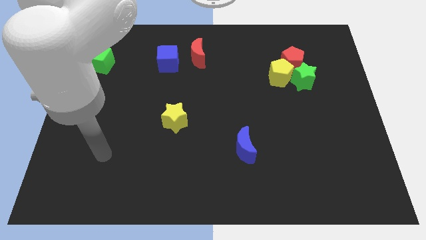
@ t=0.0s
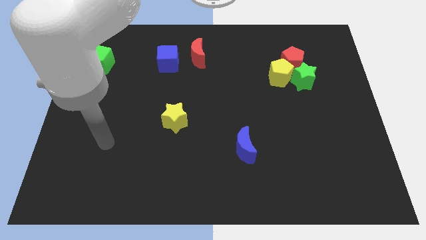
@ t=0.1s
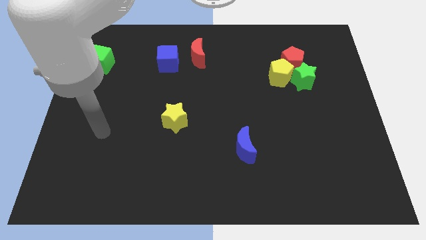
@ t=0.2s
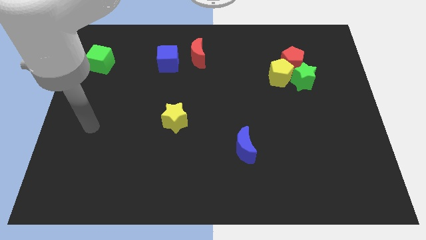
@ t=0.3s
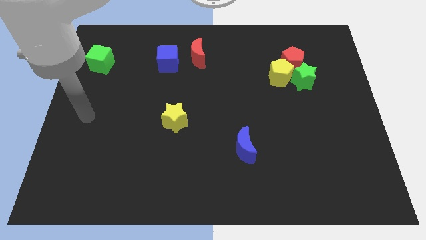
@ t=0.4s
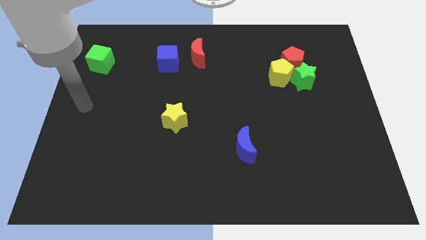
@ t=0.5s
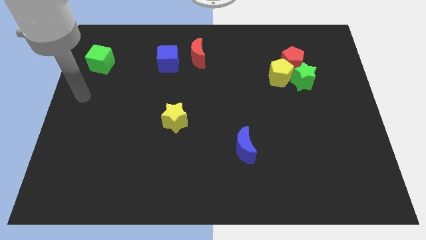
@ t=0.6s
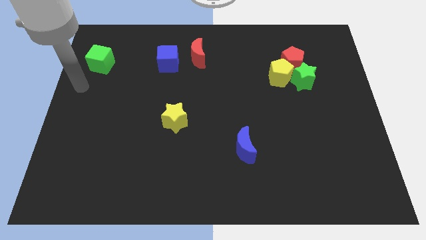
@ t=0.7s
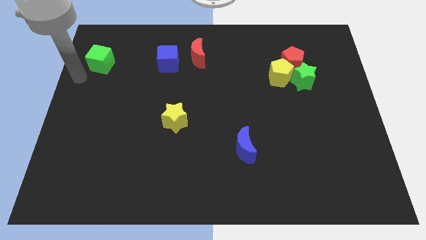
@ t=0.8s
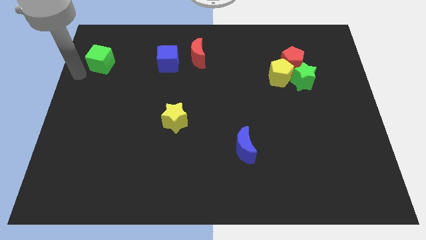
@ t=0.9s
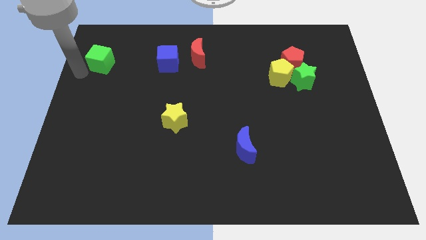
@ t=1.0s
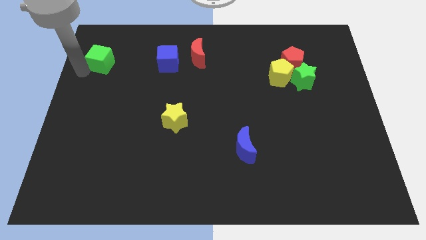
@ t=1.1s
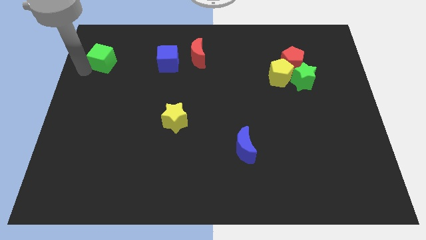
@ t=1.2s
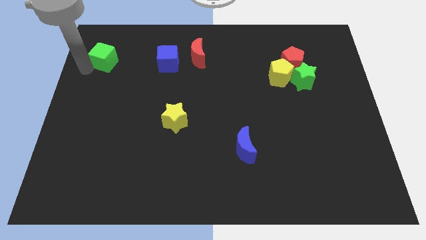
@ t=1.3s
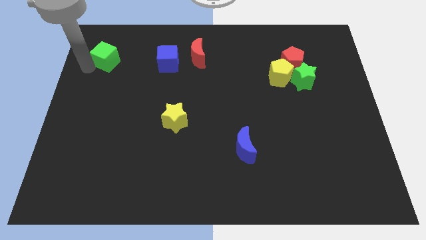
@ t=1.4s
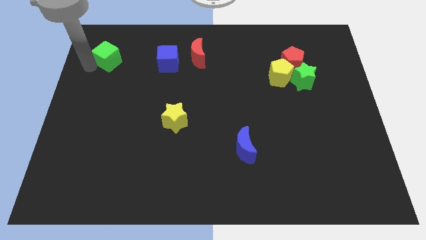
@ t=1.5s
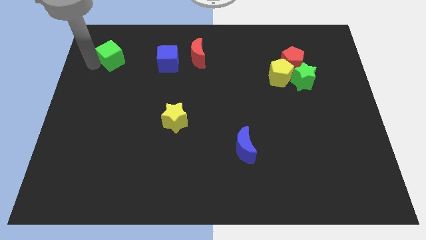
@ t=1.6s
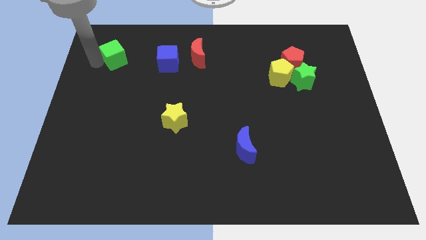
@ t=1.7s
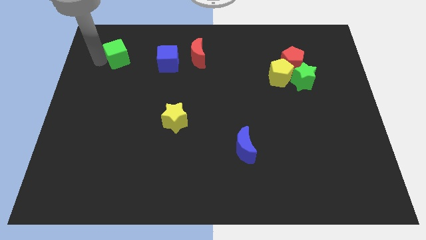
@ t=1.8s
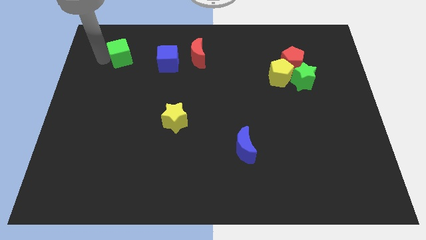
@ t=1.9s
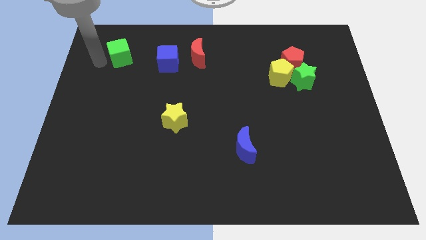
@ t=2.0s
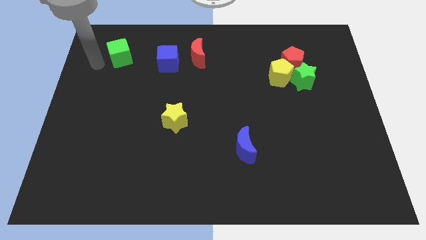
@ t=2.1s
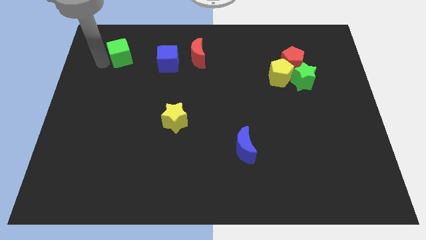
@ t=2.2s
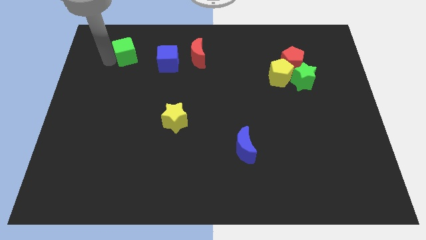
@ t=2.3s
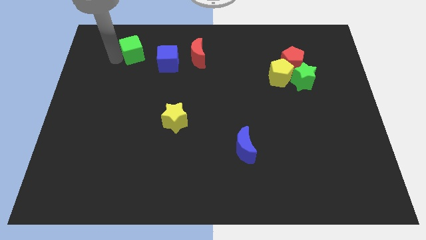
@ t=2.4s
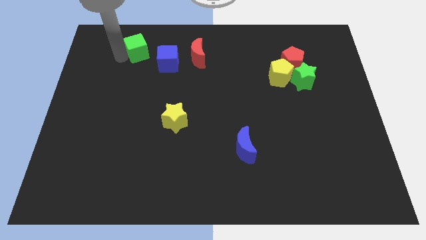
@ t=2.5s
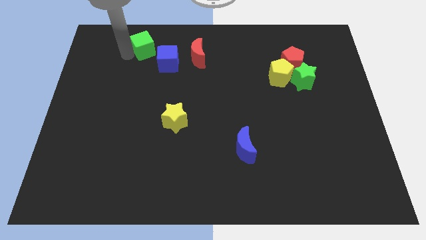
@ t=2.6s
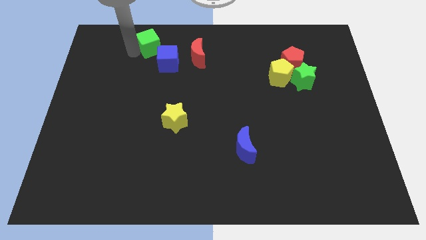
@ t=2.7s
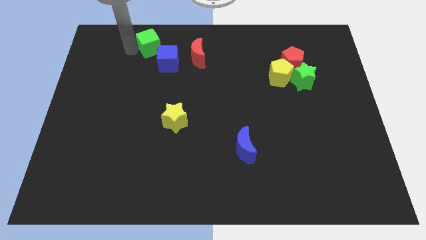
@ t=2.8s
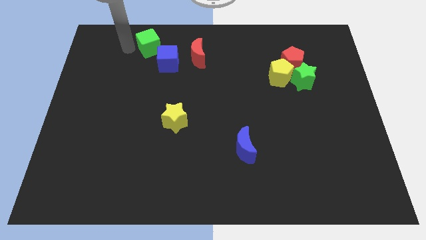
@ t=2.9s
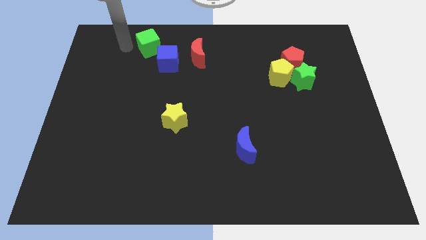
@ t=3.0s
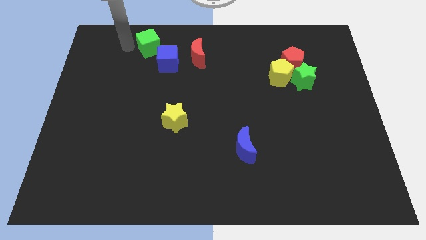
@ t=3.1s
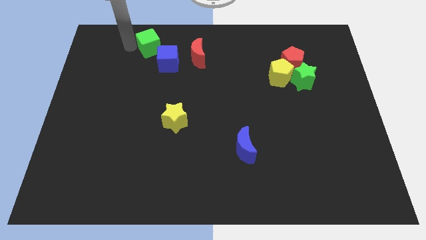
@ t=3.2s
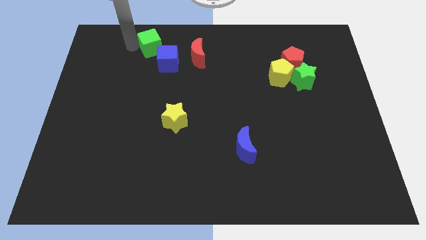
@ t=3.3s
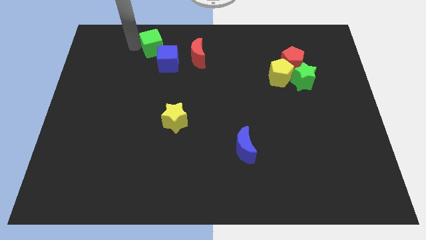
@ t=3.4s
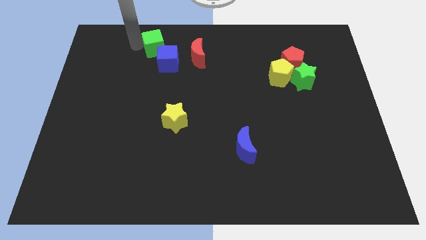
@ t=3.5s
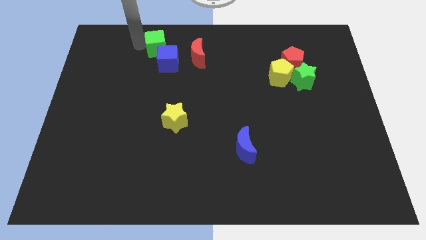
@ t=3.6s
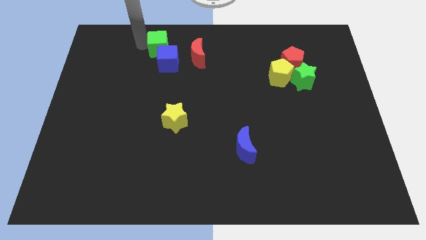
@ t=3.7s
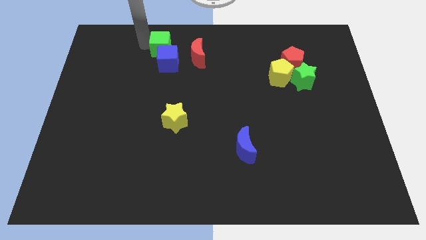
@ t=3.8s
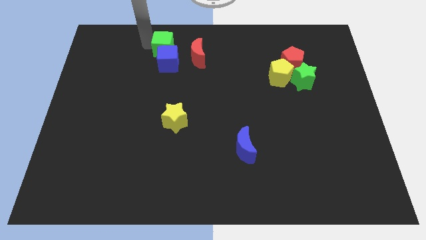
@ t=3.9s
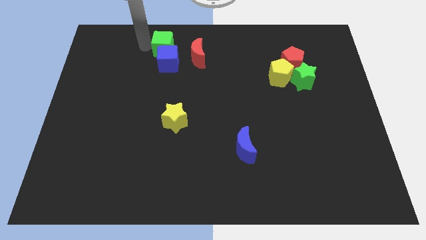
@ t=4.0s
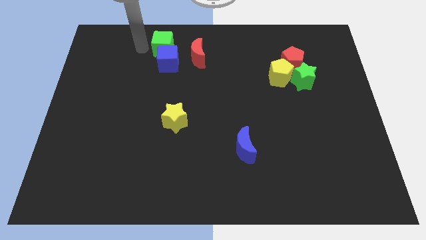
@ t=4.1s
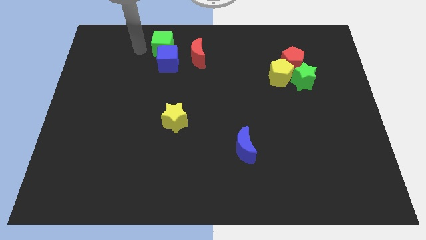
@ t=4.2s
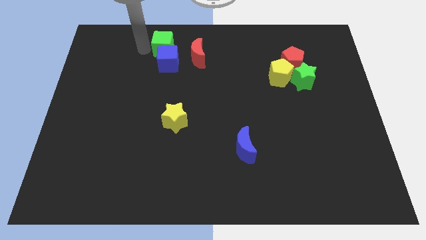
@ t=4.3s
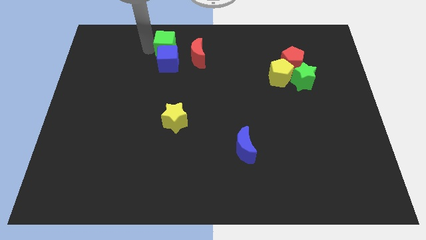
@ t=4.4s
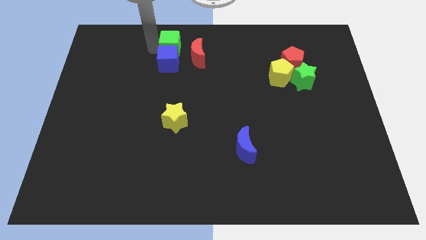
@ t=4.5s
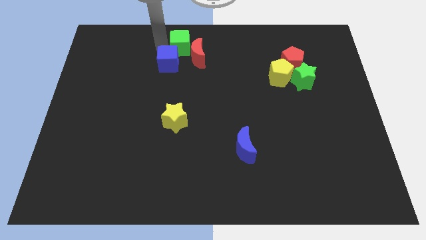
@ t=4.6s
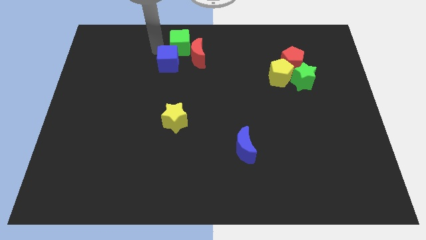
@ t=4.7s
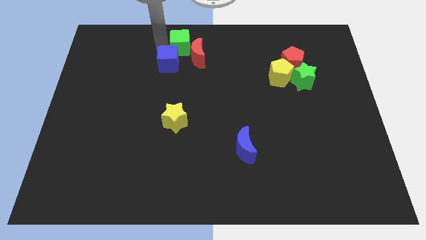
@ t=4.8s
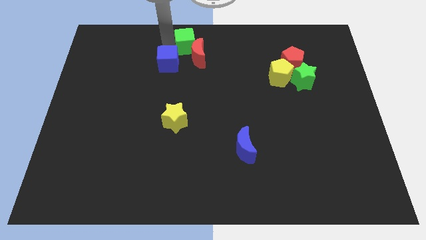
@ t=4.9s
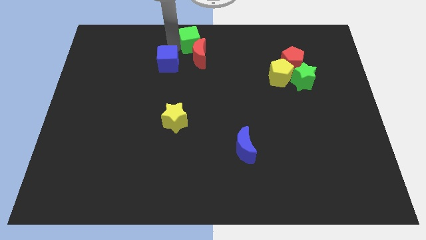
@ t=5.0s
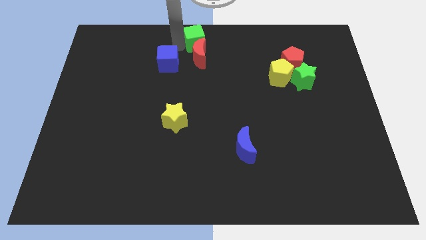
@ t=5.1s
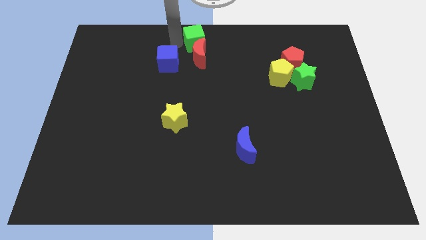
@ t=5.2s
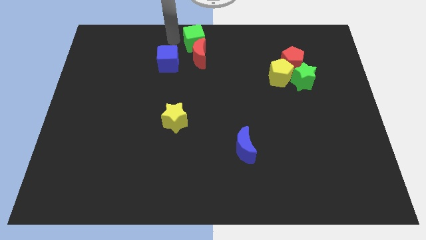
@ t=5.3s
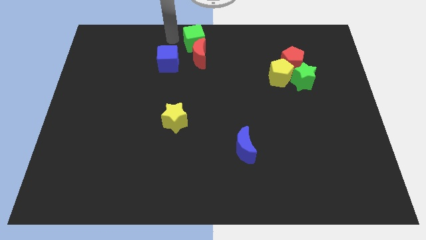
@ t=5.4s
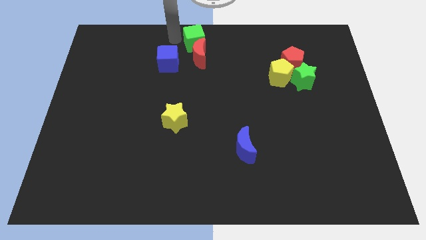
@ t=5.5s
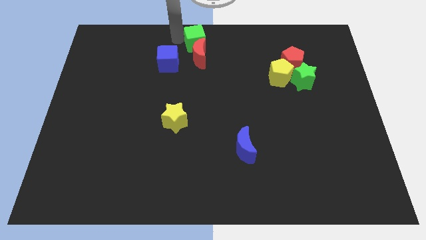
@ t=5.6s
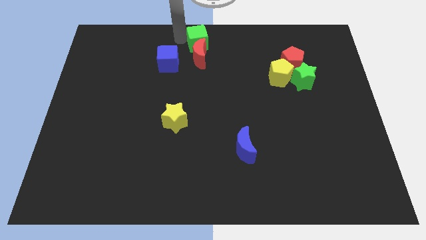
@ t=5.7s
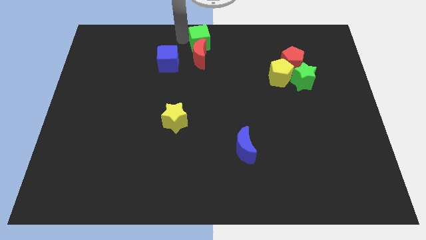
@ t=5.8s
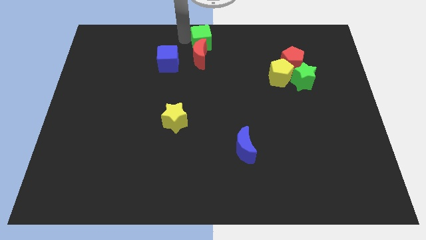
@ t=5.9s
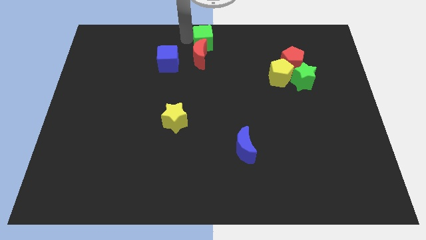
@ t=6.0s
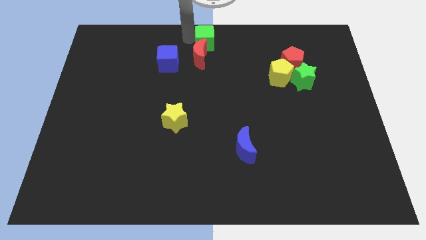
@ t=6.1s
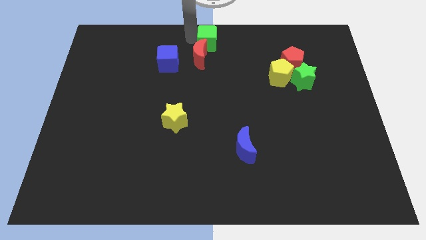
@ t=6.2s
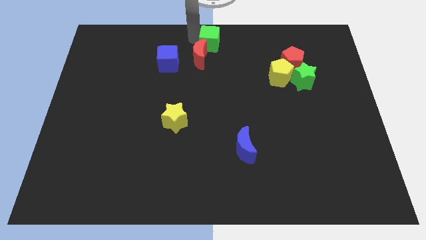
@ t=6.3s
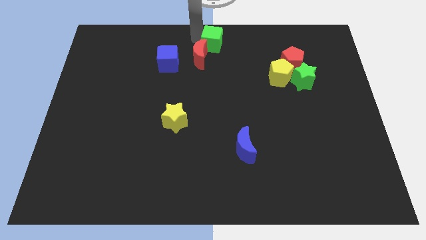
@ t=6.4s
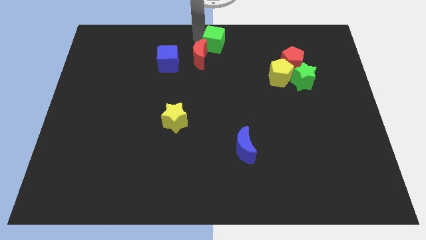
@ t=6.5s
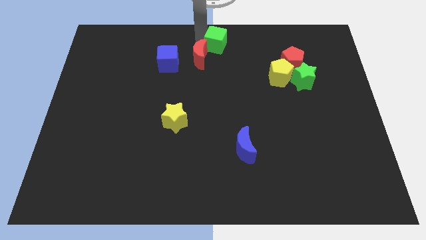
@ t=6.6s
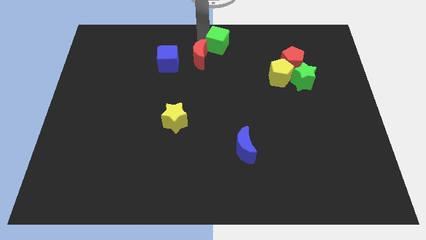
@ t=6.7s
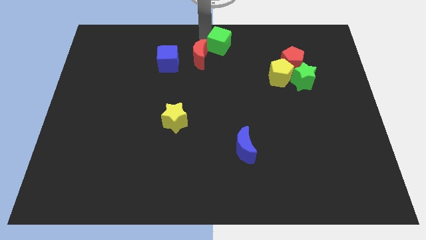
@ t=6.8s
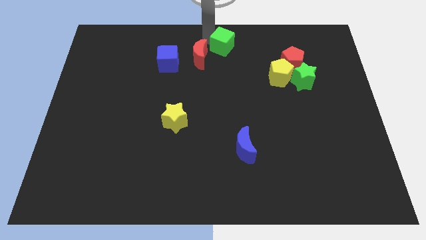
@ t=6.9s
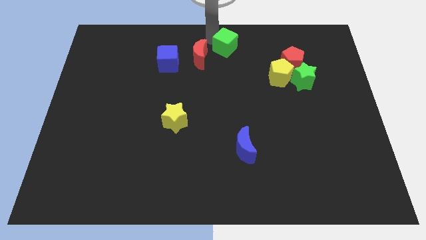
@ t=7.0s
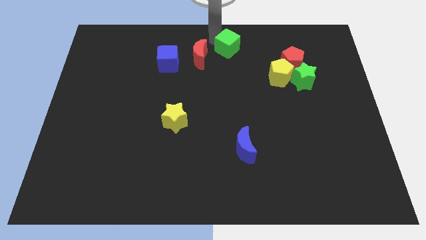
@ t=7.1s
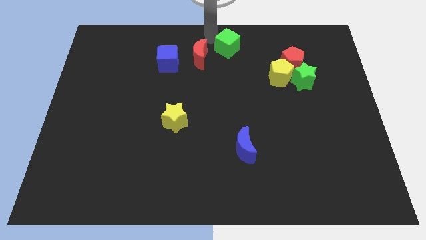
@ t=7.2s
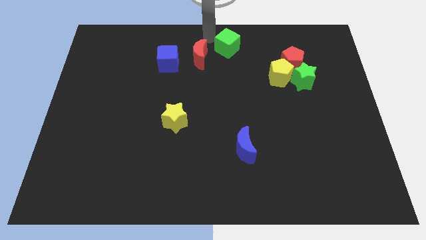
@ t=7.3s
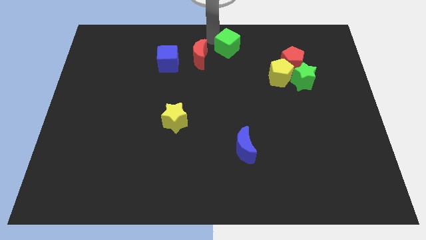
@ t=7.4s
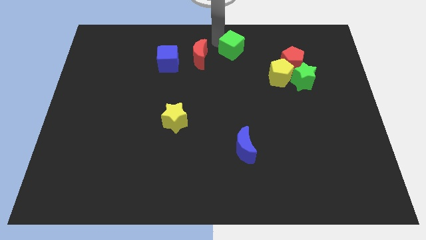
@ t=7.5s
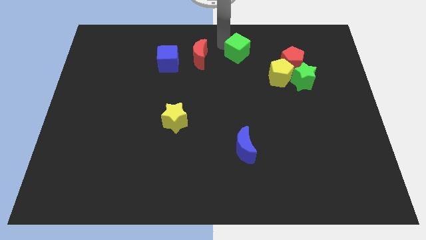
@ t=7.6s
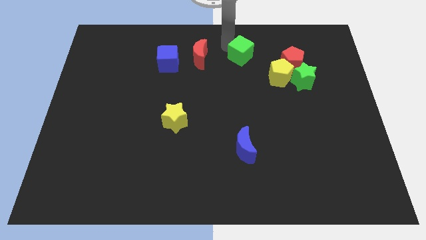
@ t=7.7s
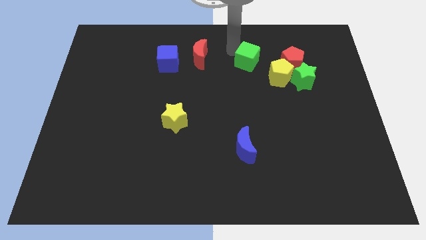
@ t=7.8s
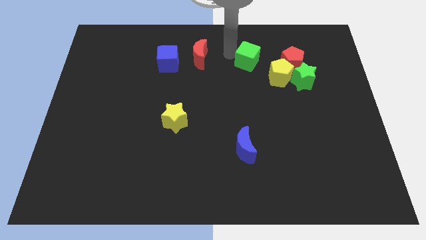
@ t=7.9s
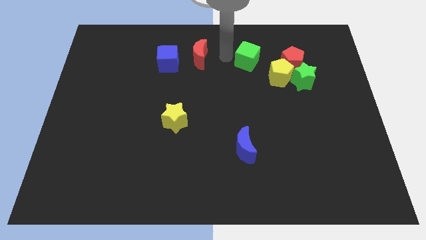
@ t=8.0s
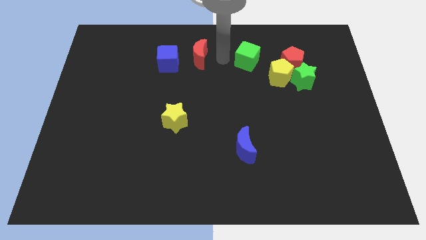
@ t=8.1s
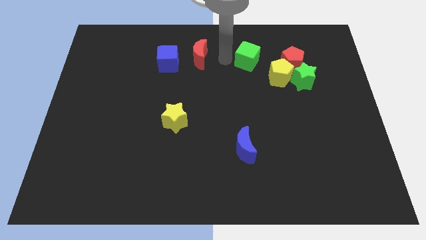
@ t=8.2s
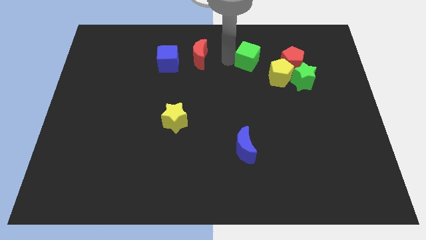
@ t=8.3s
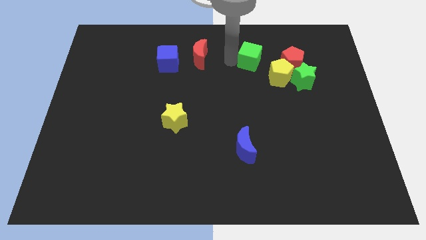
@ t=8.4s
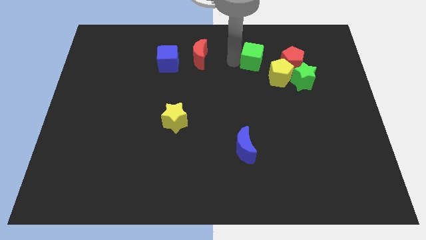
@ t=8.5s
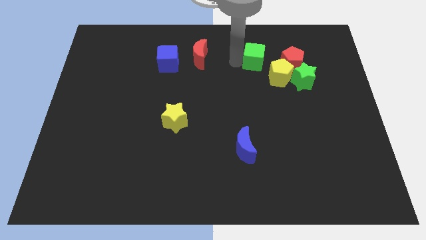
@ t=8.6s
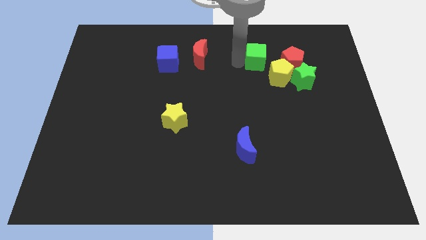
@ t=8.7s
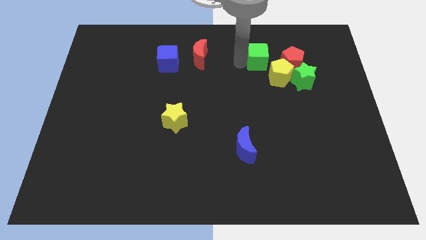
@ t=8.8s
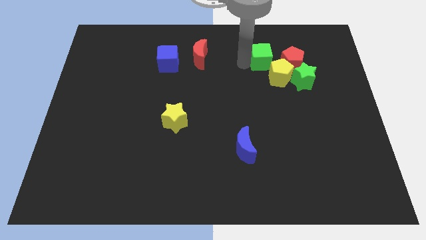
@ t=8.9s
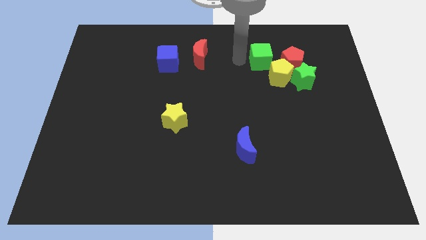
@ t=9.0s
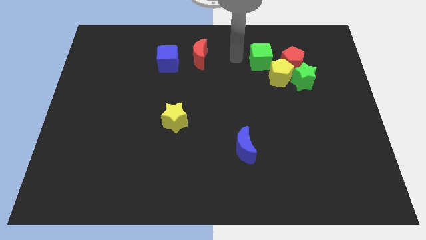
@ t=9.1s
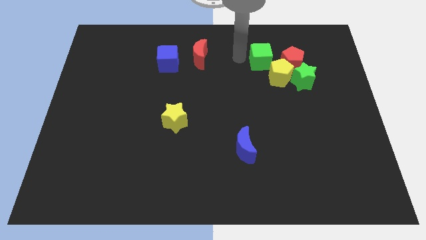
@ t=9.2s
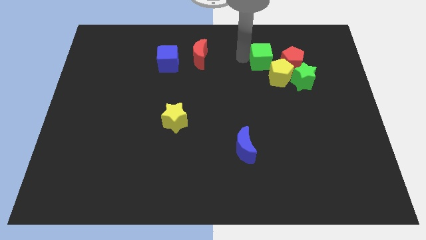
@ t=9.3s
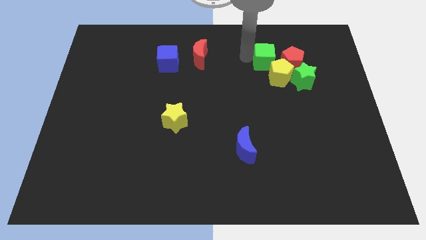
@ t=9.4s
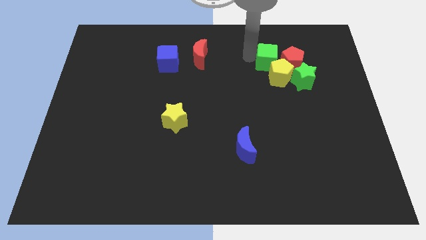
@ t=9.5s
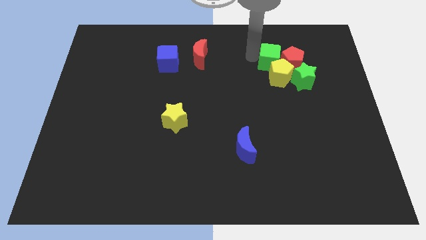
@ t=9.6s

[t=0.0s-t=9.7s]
move the green cube next to the red pentagon
